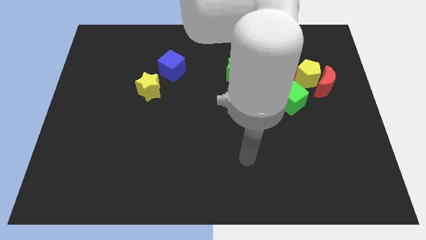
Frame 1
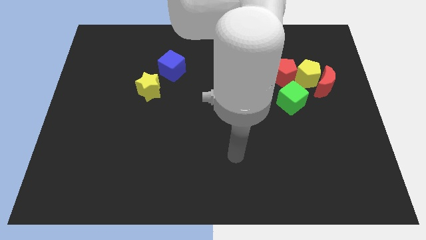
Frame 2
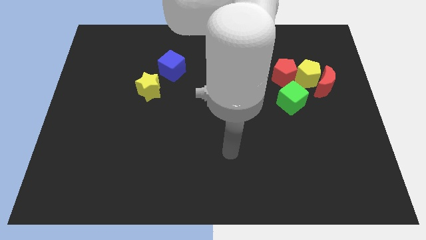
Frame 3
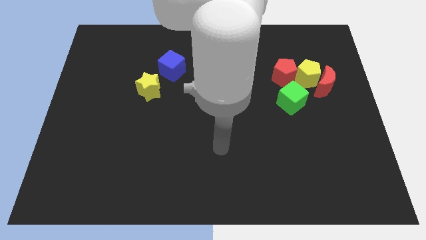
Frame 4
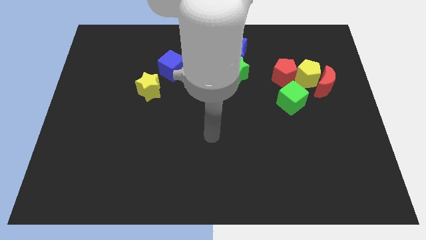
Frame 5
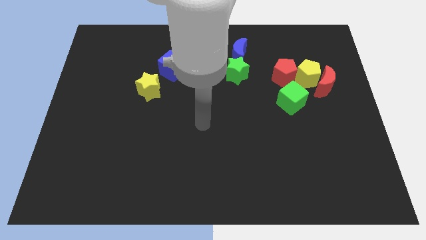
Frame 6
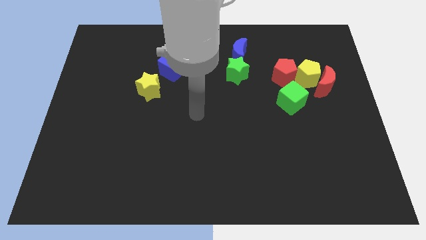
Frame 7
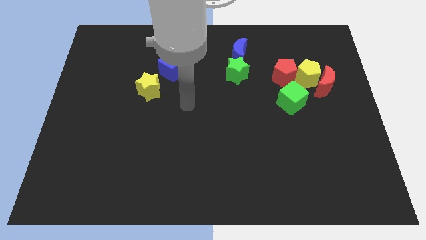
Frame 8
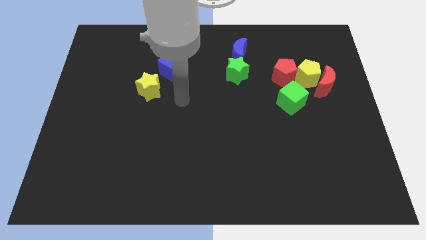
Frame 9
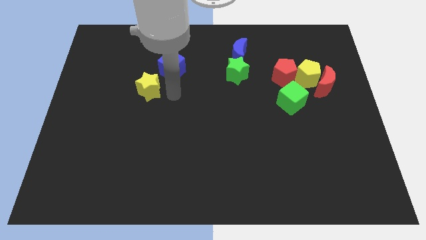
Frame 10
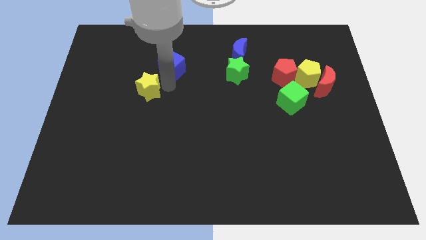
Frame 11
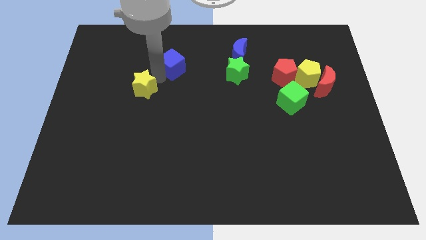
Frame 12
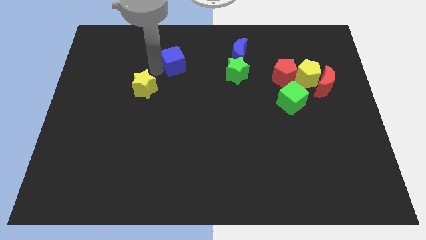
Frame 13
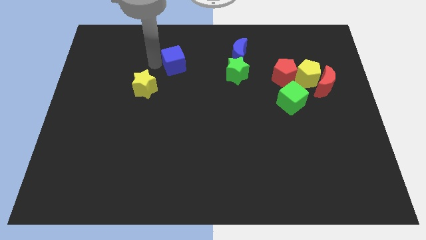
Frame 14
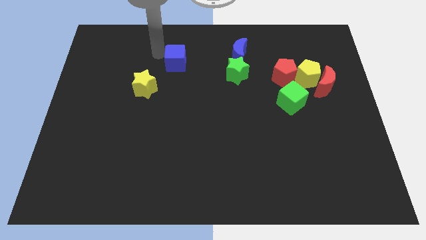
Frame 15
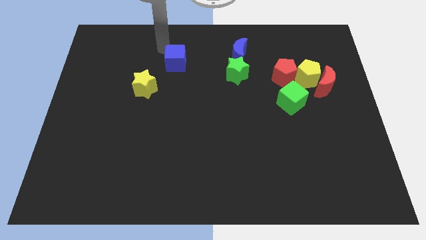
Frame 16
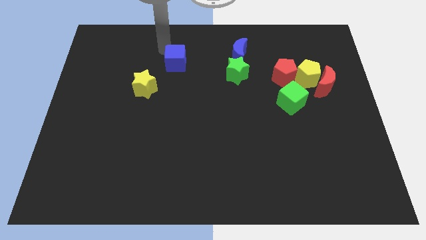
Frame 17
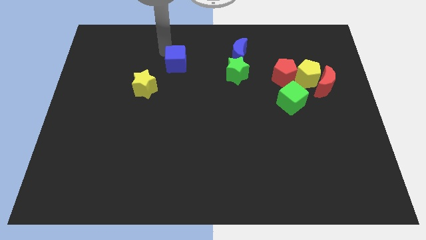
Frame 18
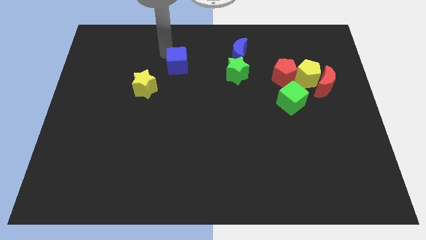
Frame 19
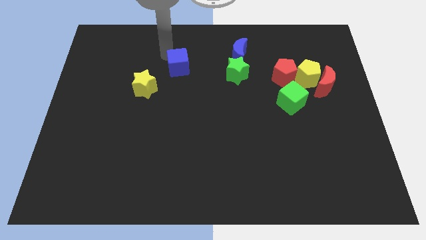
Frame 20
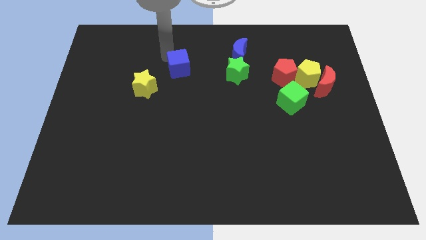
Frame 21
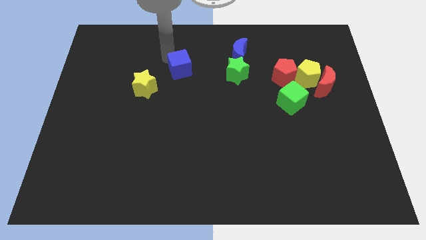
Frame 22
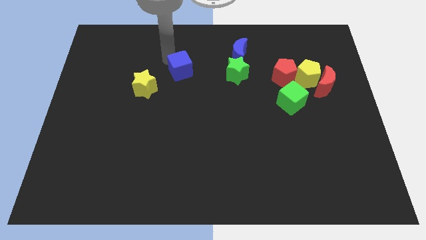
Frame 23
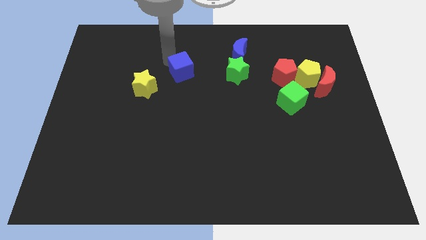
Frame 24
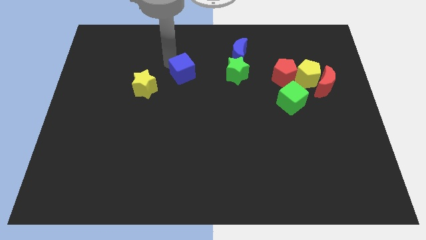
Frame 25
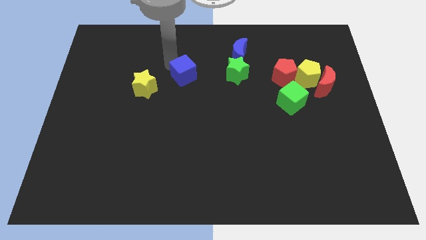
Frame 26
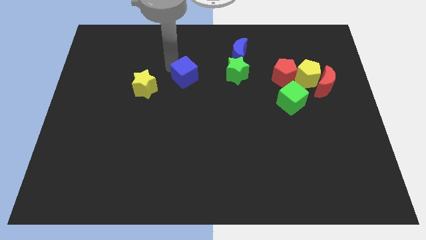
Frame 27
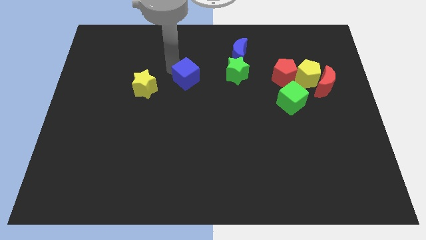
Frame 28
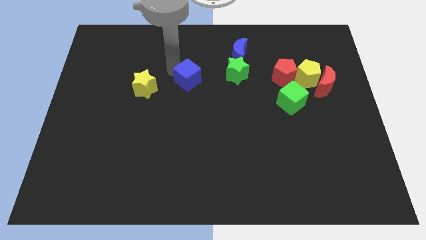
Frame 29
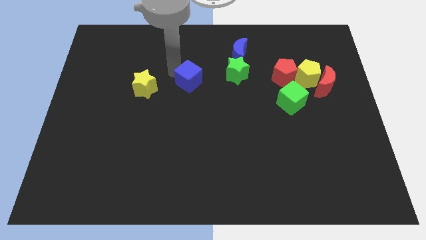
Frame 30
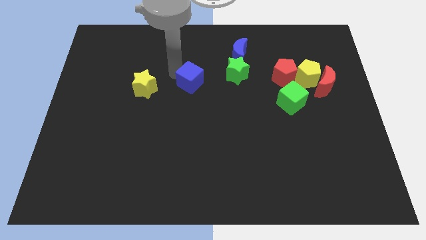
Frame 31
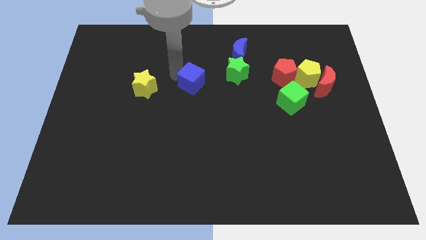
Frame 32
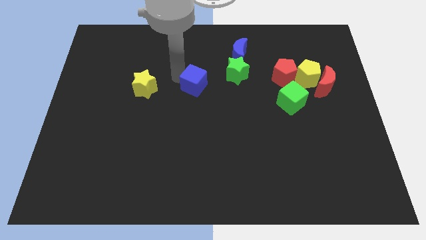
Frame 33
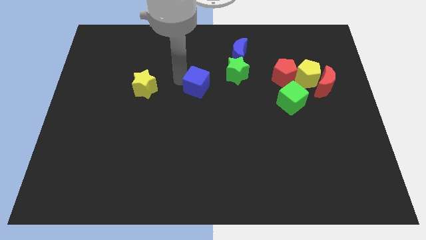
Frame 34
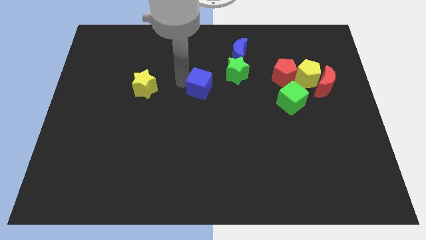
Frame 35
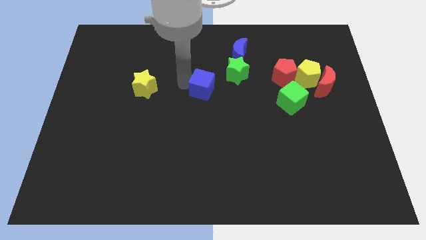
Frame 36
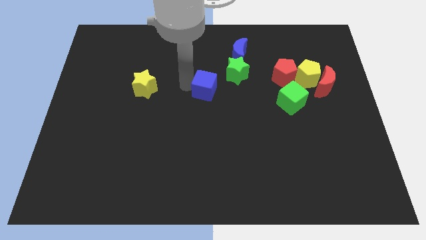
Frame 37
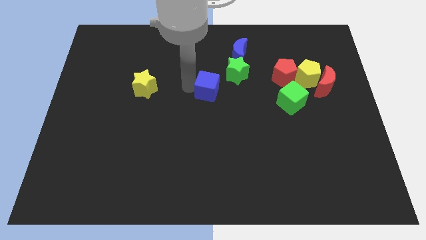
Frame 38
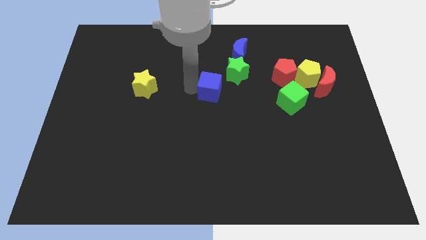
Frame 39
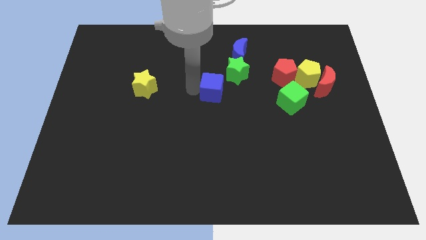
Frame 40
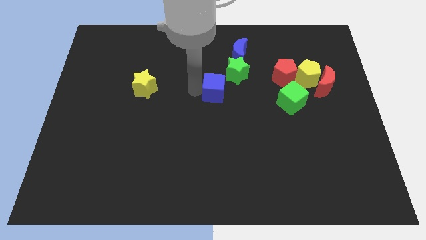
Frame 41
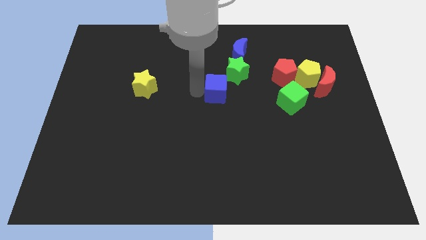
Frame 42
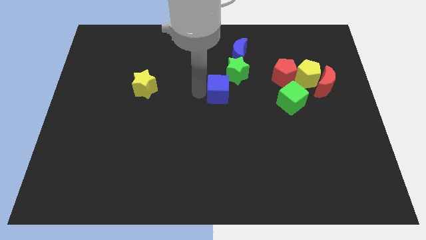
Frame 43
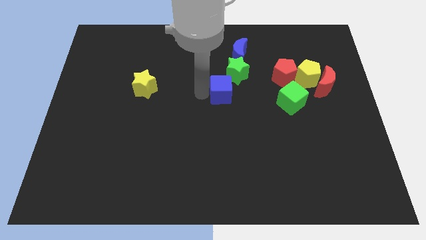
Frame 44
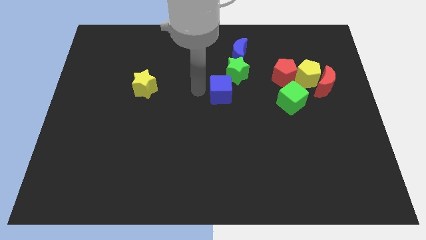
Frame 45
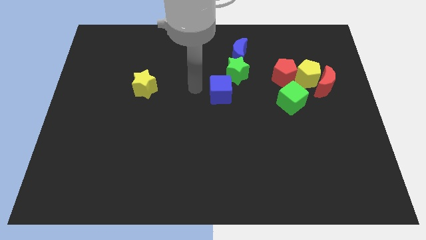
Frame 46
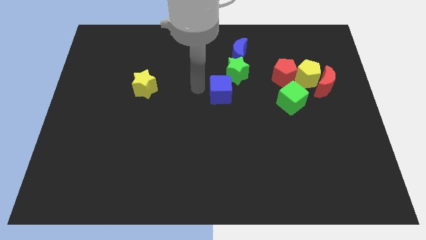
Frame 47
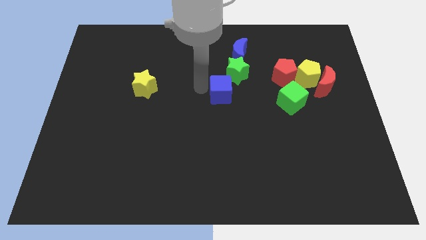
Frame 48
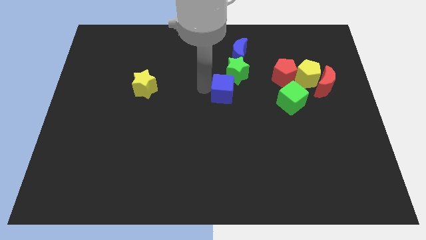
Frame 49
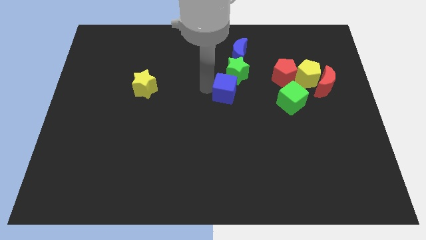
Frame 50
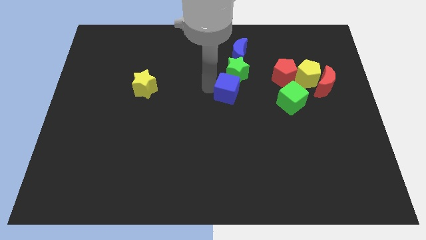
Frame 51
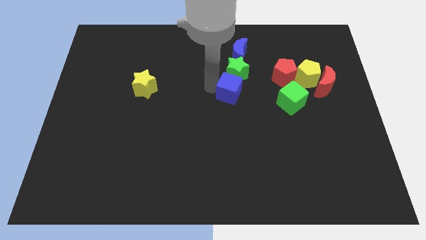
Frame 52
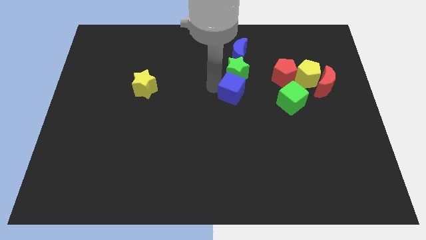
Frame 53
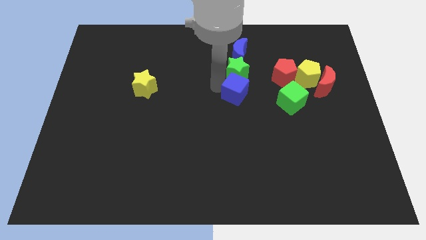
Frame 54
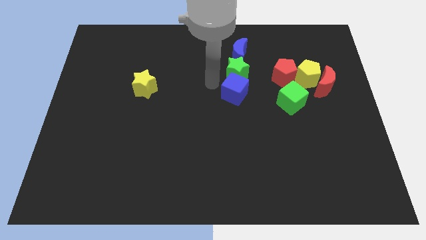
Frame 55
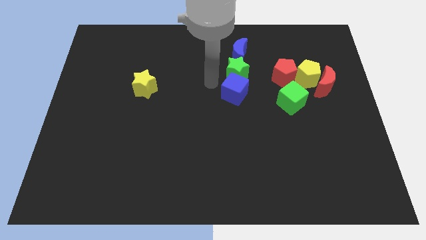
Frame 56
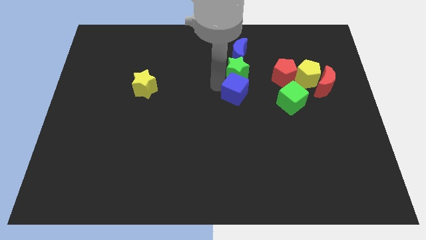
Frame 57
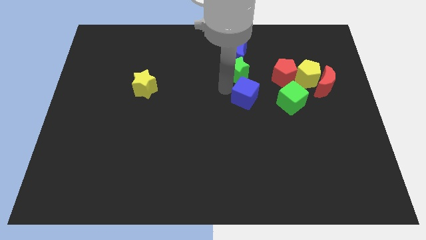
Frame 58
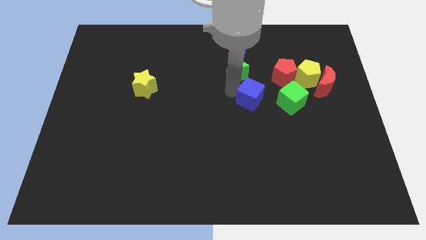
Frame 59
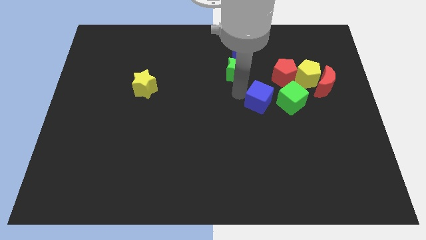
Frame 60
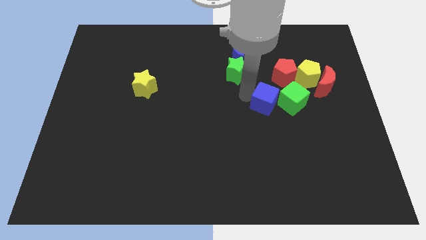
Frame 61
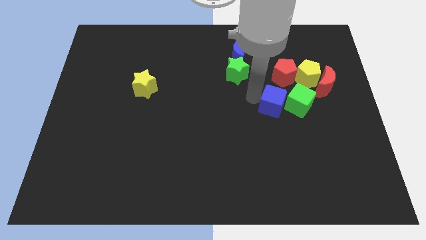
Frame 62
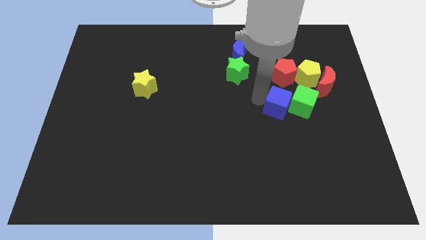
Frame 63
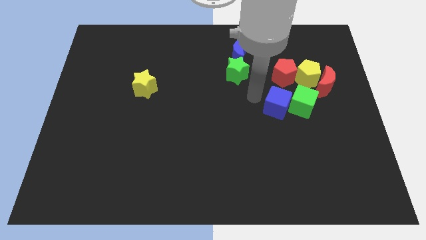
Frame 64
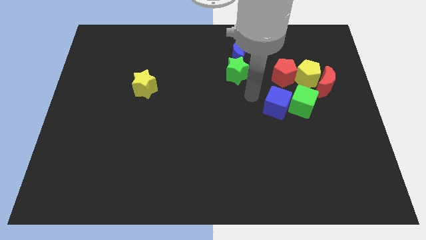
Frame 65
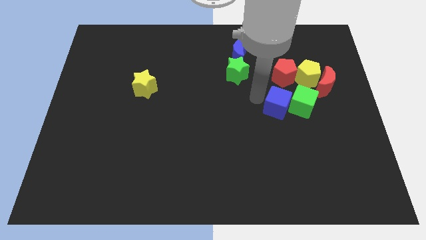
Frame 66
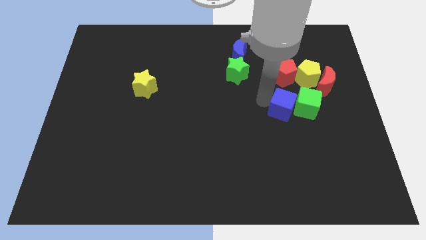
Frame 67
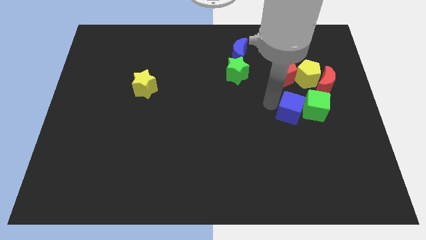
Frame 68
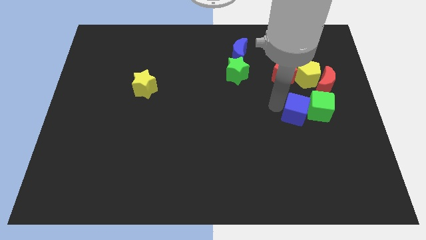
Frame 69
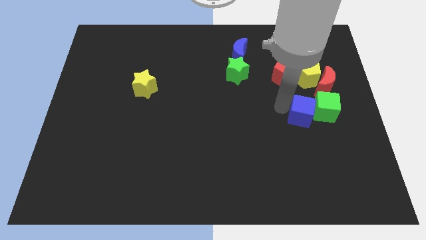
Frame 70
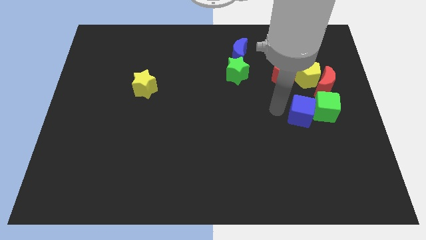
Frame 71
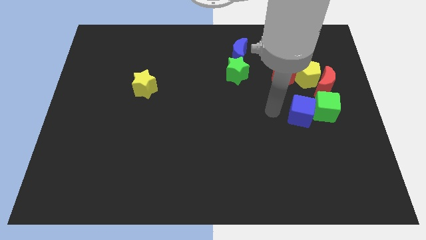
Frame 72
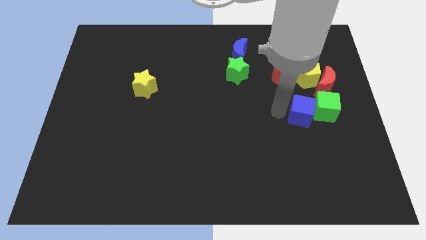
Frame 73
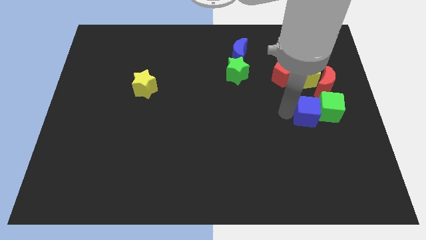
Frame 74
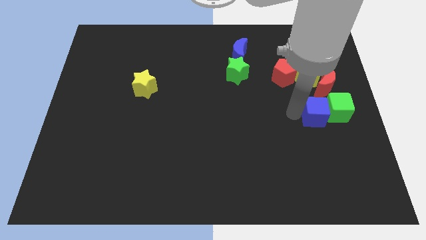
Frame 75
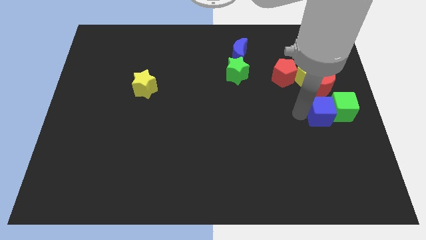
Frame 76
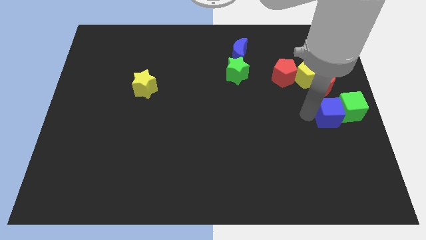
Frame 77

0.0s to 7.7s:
put the blue cube to the right side
